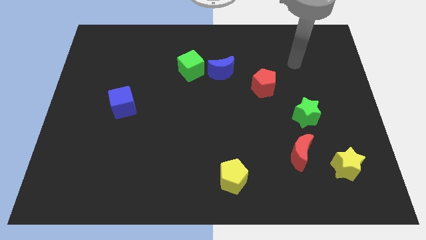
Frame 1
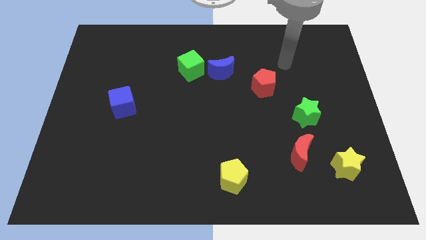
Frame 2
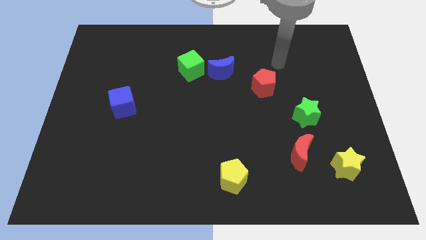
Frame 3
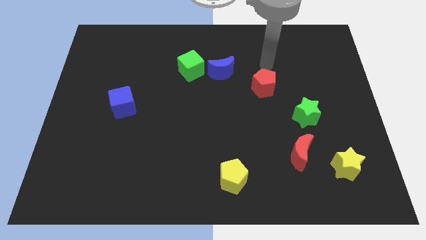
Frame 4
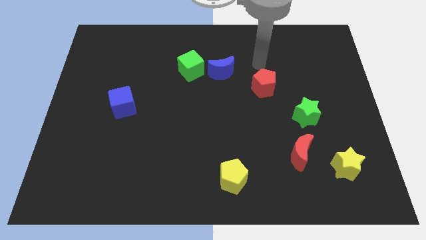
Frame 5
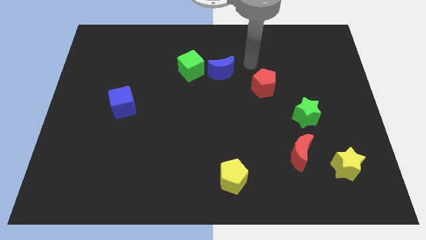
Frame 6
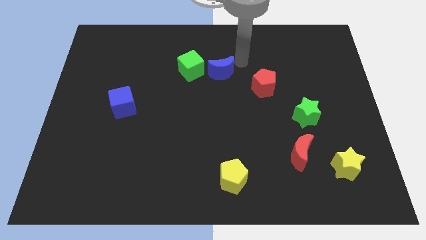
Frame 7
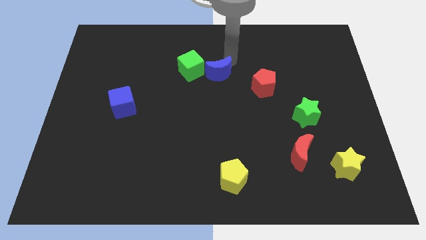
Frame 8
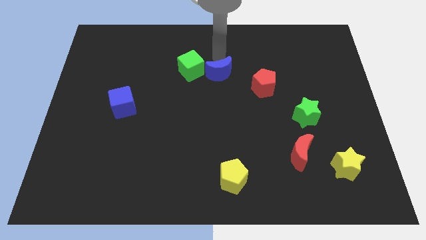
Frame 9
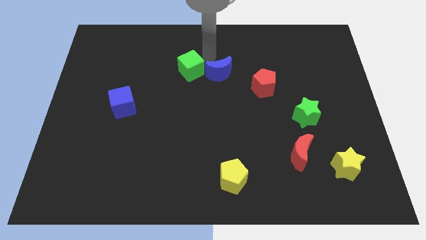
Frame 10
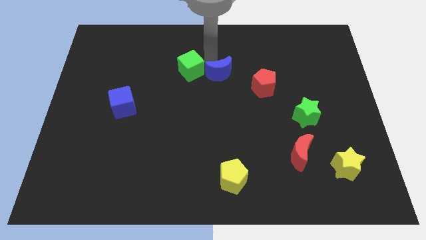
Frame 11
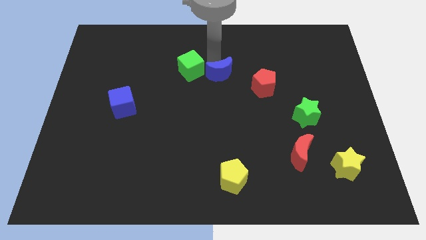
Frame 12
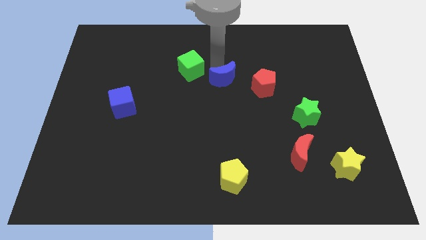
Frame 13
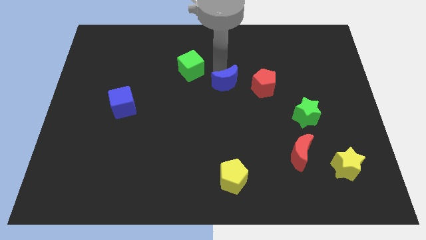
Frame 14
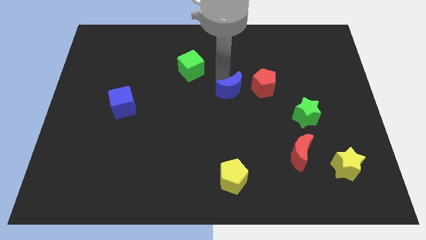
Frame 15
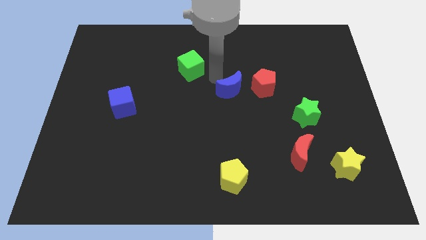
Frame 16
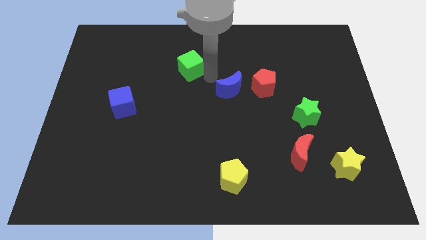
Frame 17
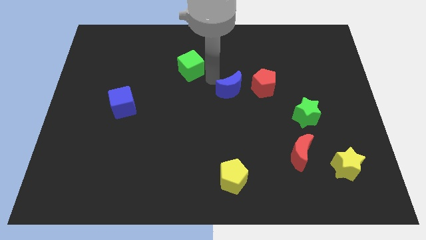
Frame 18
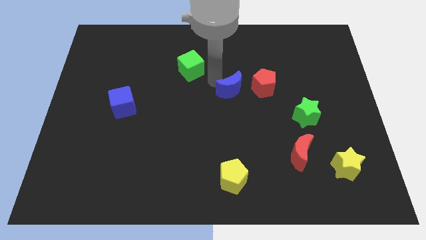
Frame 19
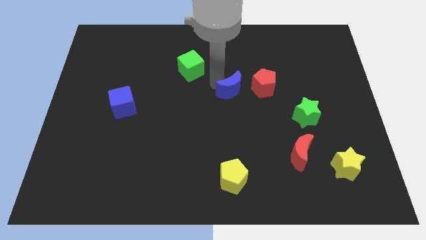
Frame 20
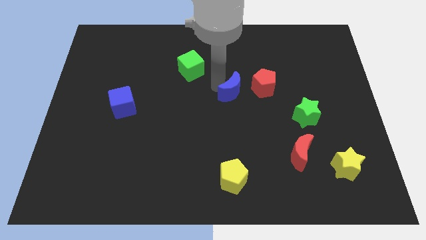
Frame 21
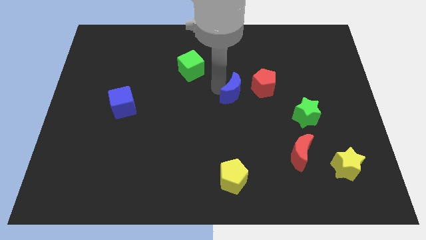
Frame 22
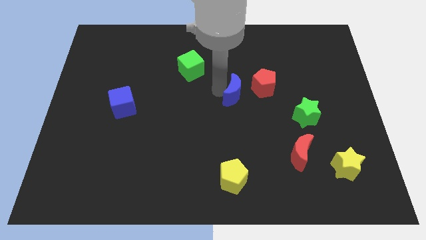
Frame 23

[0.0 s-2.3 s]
move the blue moon down and to the right somewhat

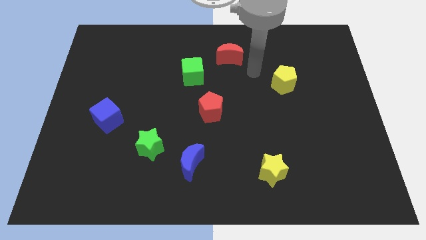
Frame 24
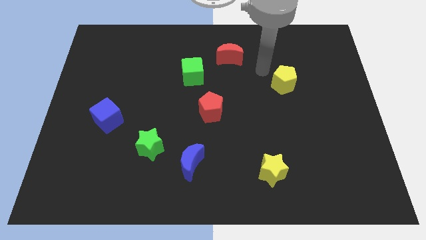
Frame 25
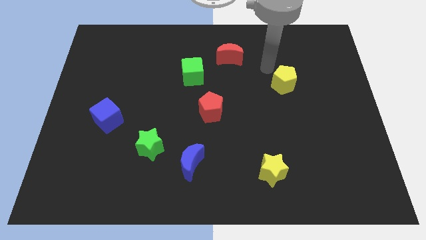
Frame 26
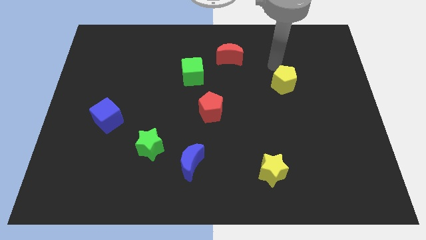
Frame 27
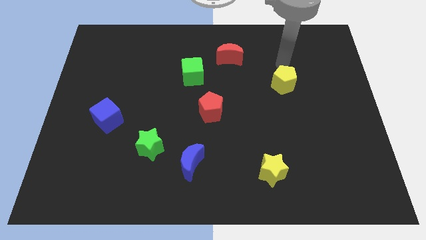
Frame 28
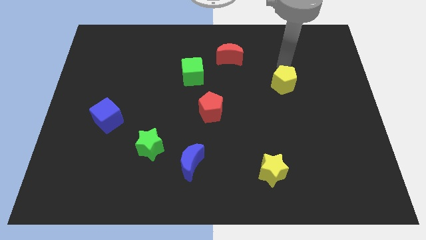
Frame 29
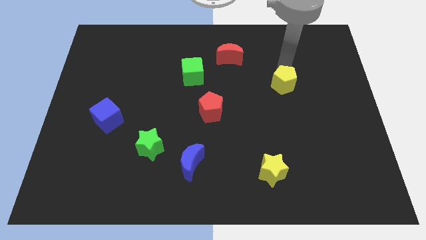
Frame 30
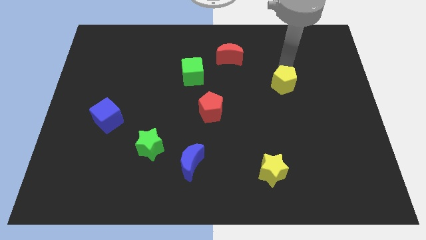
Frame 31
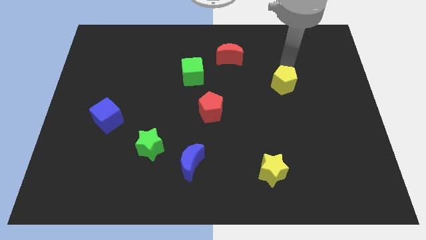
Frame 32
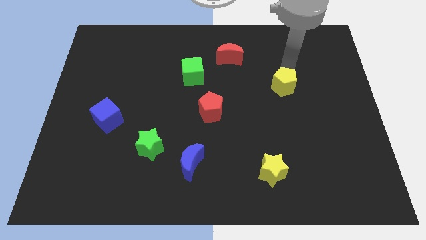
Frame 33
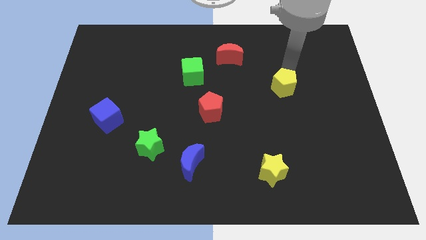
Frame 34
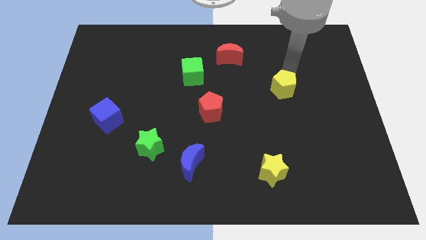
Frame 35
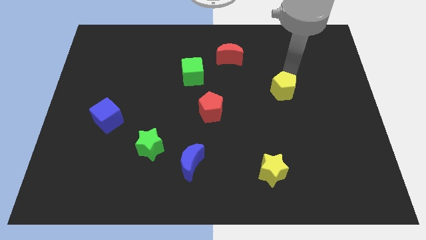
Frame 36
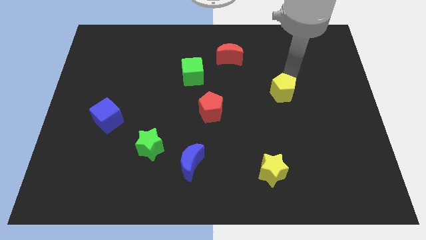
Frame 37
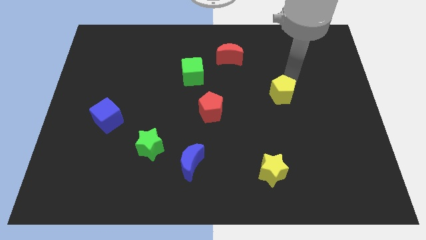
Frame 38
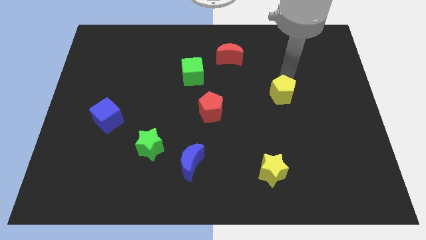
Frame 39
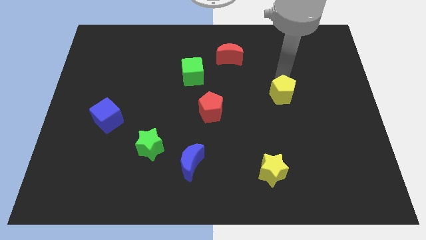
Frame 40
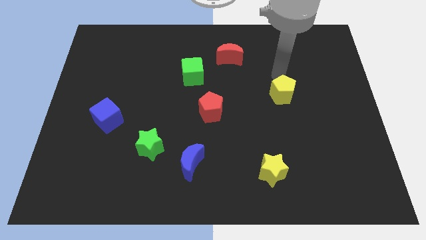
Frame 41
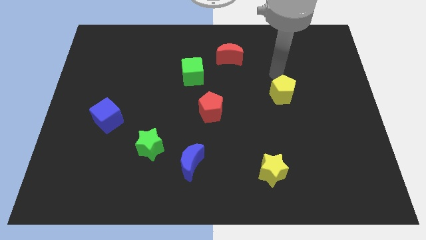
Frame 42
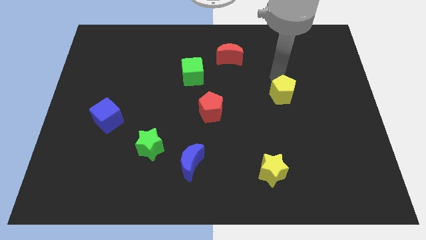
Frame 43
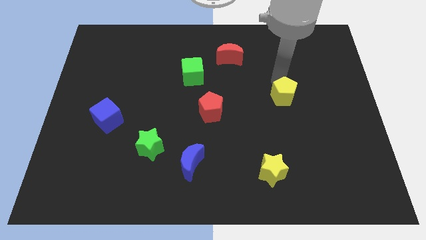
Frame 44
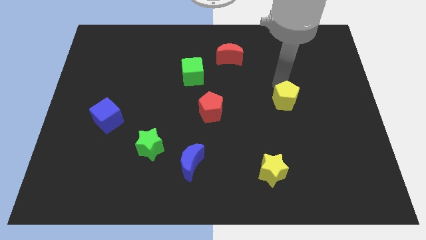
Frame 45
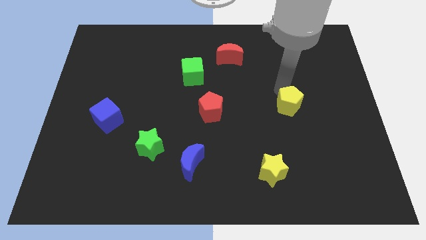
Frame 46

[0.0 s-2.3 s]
slide the yellow pentagon a little downwards

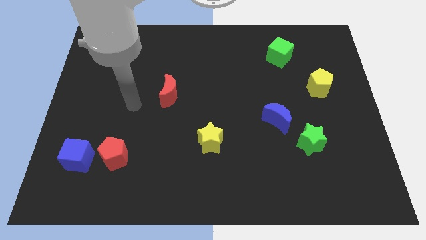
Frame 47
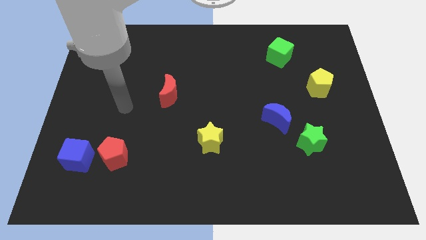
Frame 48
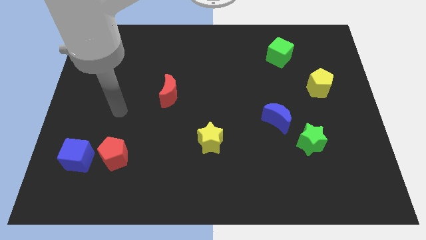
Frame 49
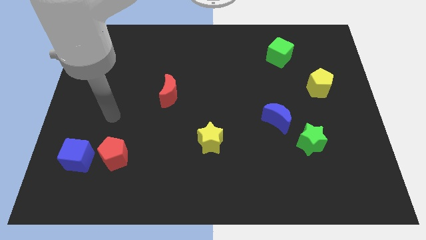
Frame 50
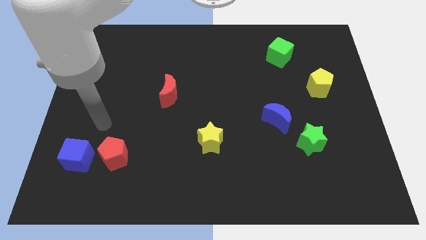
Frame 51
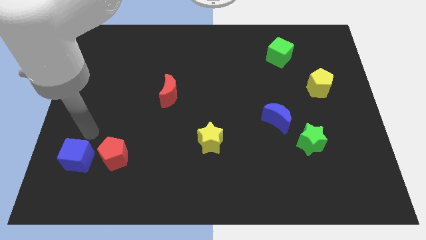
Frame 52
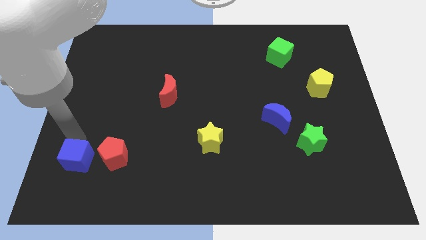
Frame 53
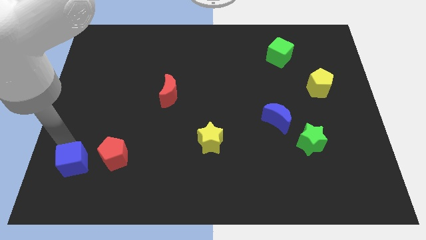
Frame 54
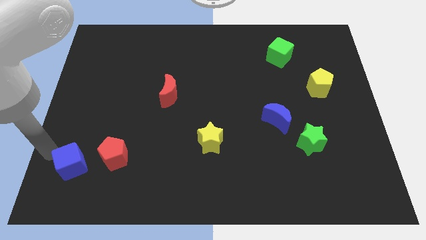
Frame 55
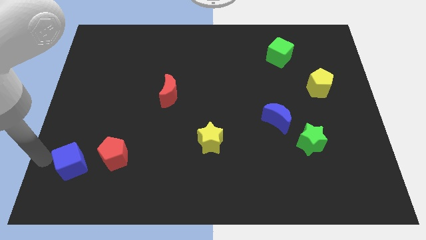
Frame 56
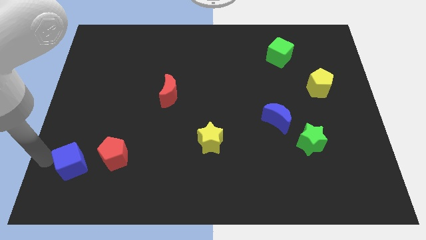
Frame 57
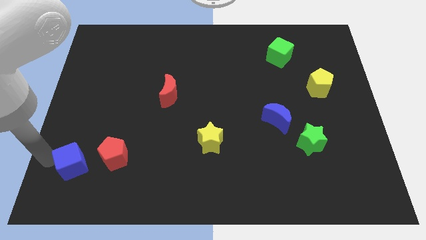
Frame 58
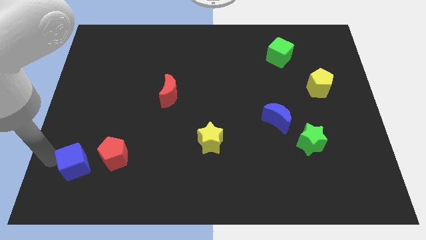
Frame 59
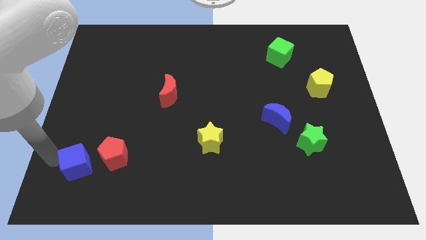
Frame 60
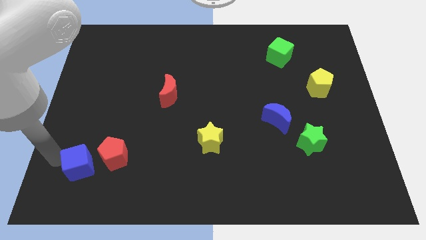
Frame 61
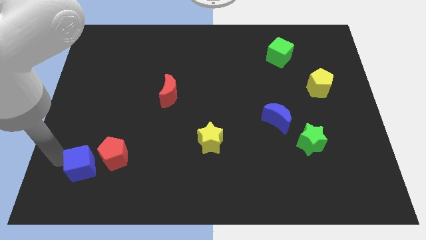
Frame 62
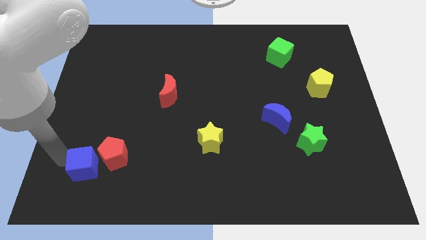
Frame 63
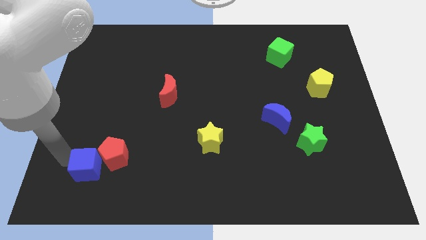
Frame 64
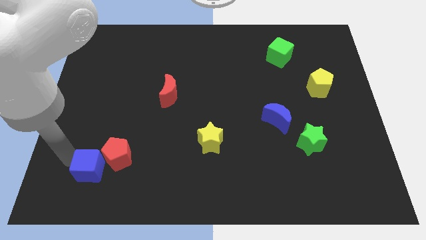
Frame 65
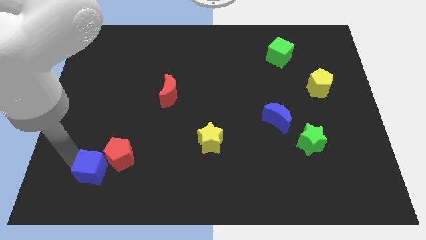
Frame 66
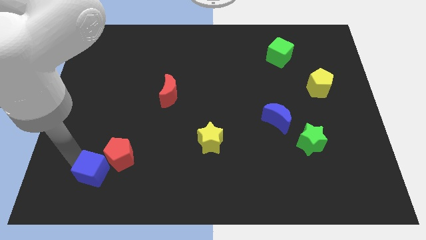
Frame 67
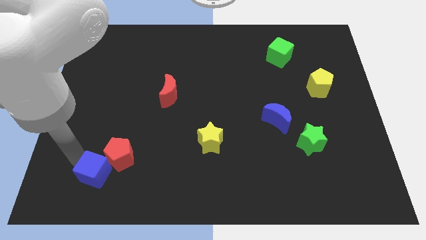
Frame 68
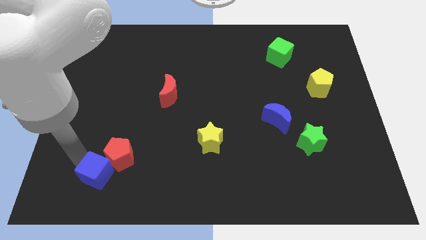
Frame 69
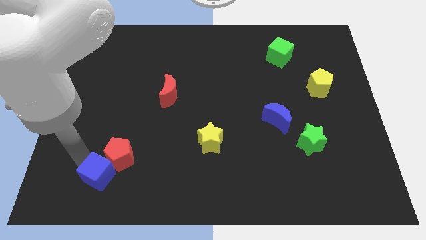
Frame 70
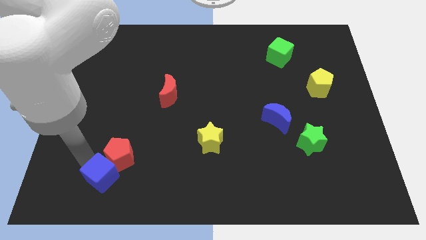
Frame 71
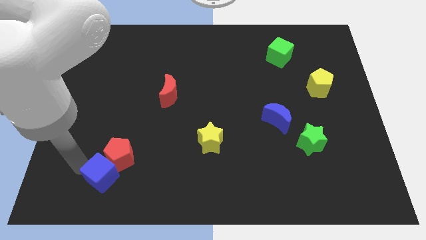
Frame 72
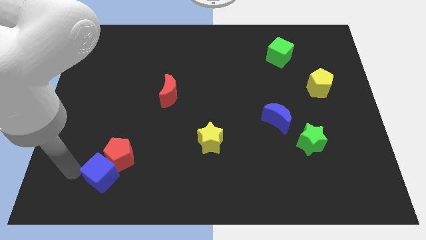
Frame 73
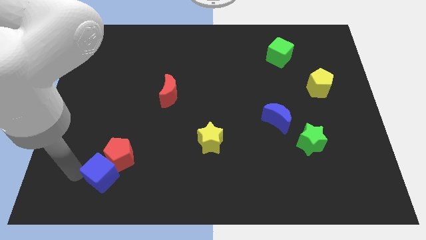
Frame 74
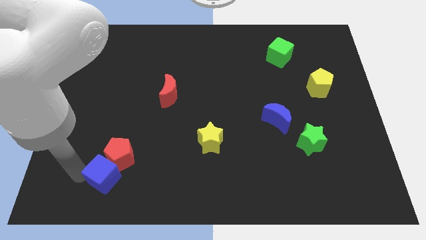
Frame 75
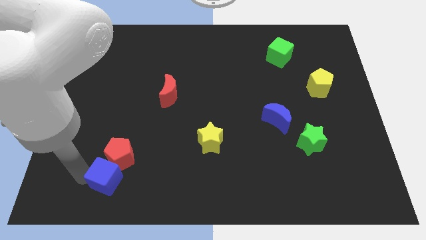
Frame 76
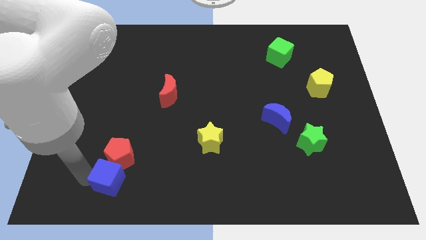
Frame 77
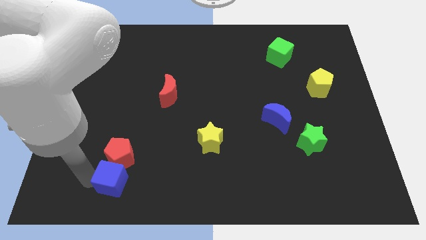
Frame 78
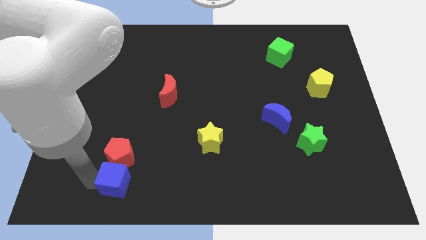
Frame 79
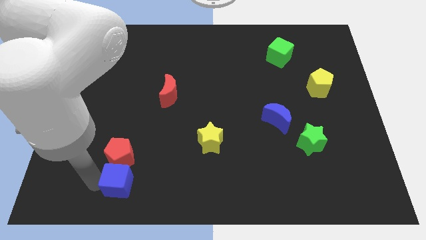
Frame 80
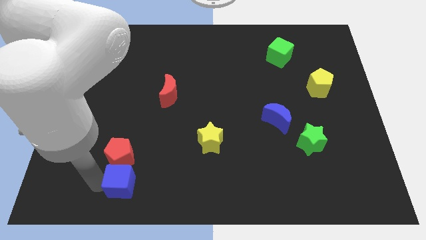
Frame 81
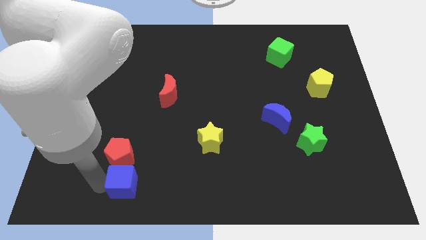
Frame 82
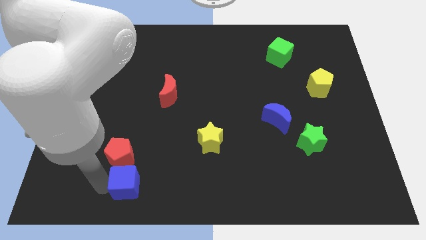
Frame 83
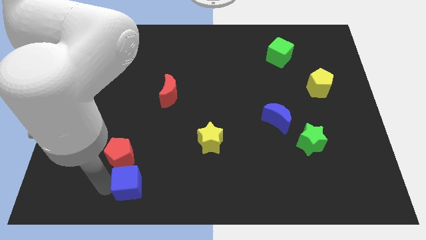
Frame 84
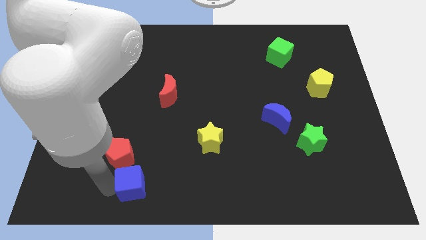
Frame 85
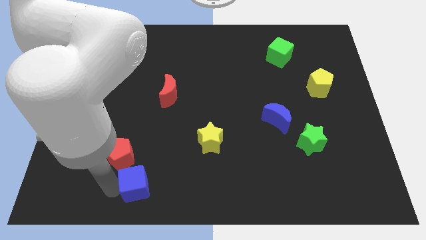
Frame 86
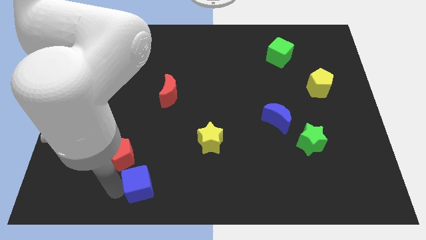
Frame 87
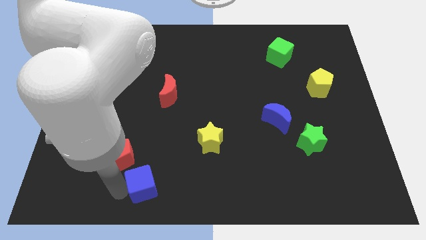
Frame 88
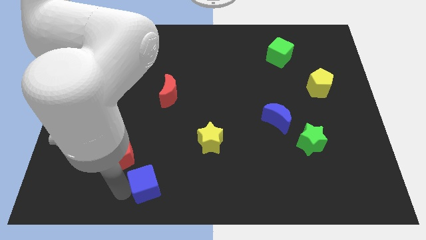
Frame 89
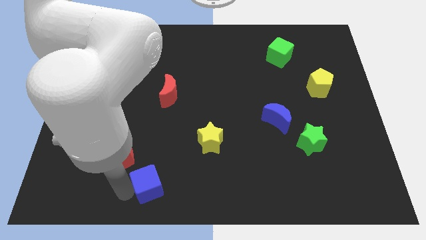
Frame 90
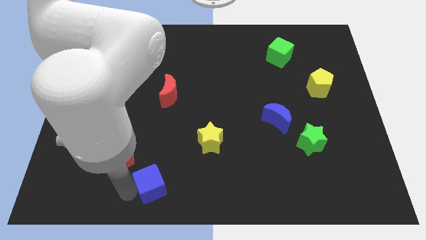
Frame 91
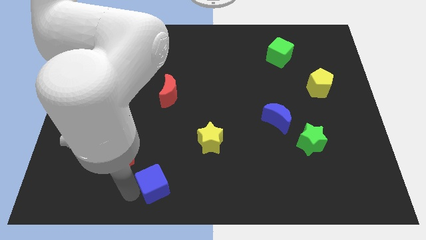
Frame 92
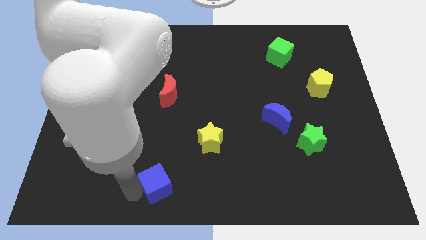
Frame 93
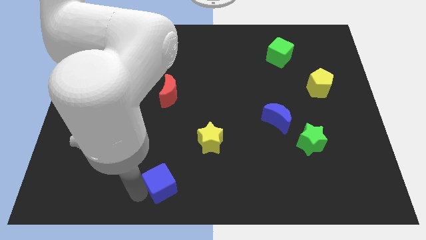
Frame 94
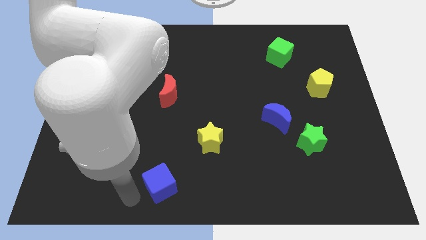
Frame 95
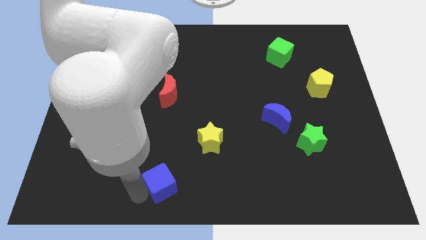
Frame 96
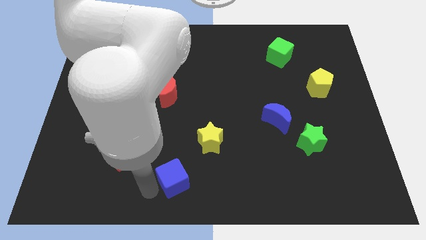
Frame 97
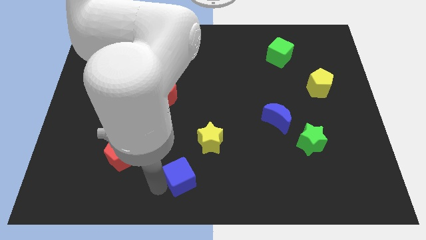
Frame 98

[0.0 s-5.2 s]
move the blue cube right
